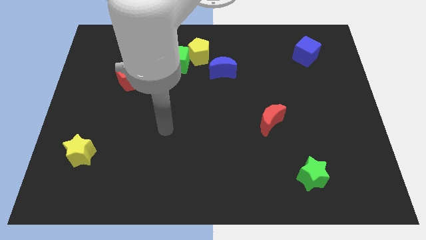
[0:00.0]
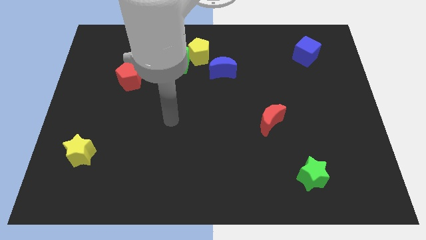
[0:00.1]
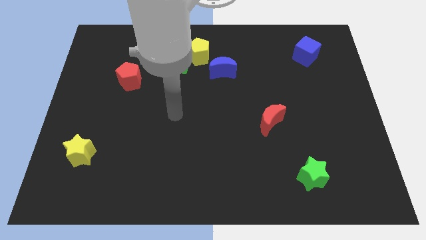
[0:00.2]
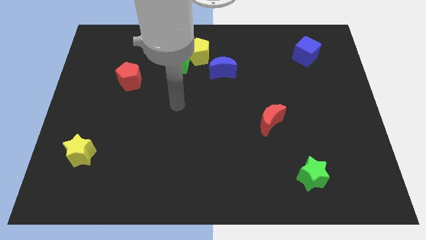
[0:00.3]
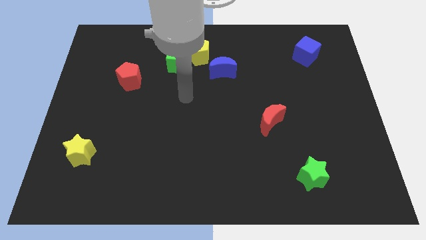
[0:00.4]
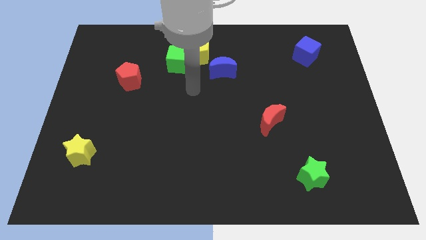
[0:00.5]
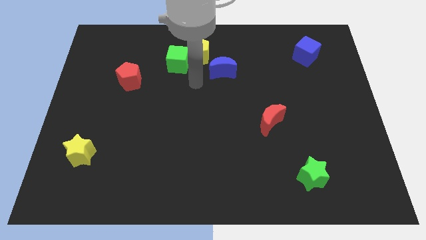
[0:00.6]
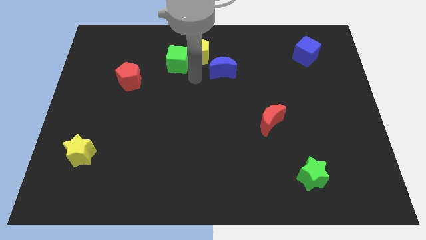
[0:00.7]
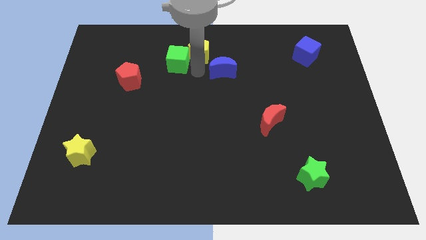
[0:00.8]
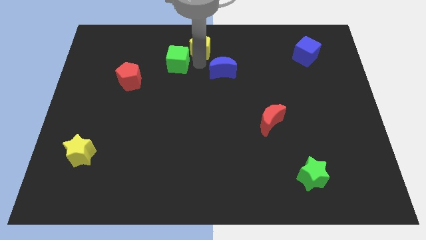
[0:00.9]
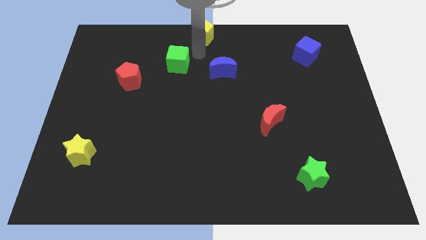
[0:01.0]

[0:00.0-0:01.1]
move the green cube away from the yellow pentagon

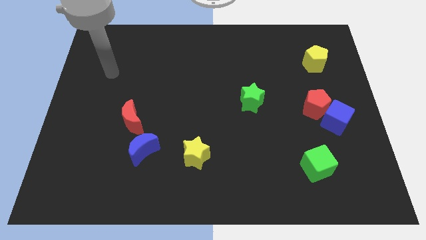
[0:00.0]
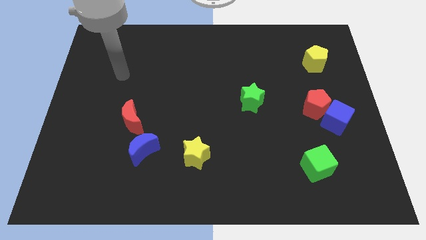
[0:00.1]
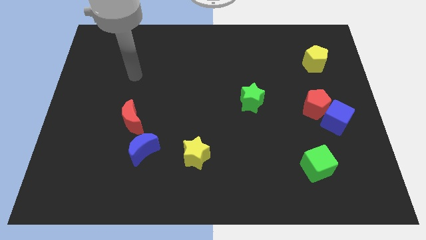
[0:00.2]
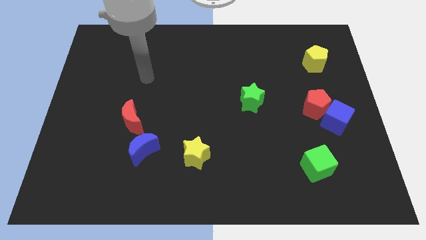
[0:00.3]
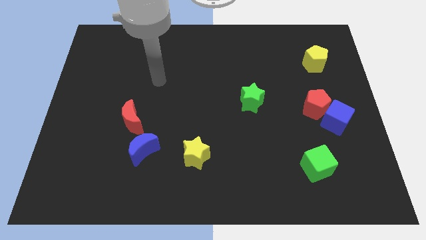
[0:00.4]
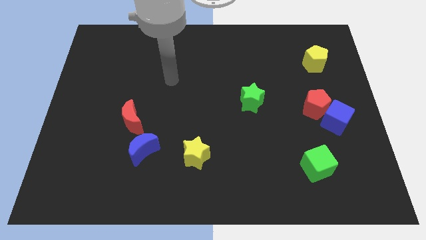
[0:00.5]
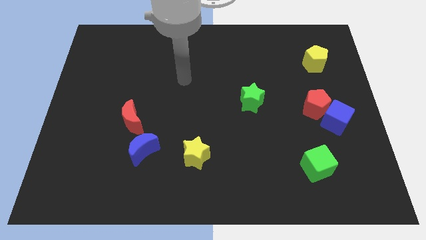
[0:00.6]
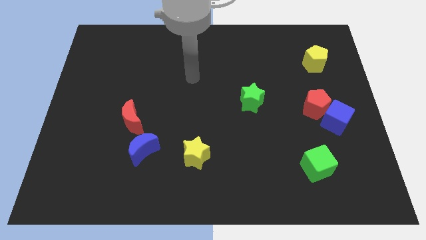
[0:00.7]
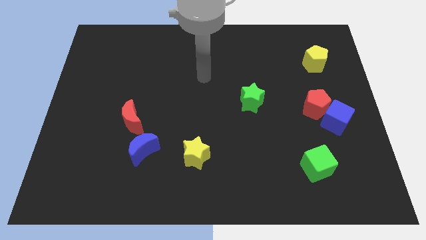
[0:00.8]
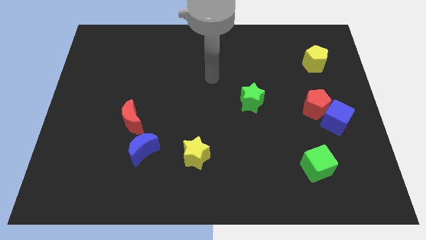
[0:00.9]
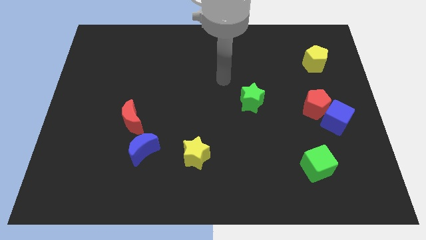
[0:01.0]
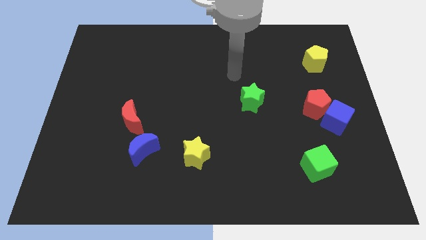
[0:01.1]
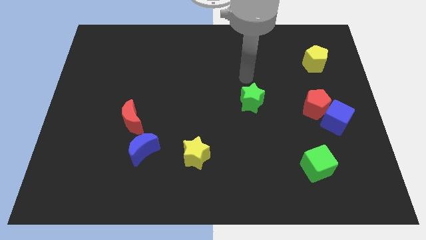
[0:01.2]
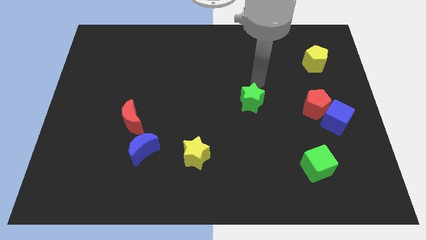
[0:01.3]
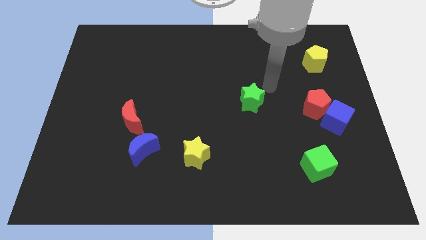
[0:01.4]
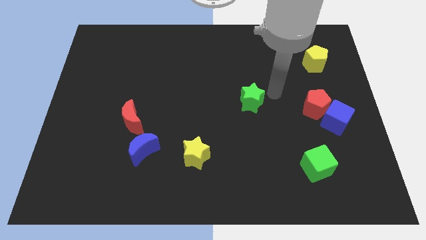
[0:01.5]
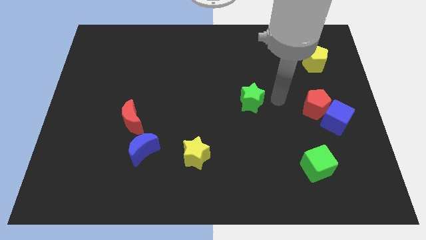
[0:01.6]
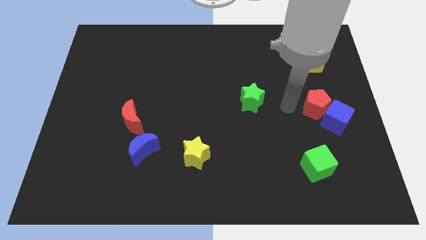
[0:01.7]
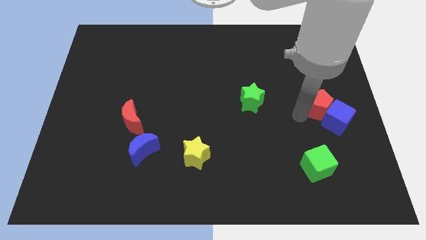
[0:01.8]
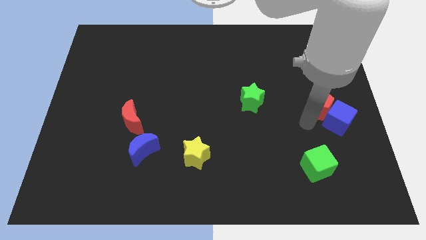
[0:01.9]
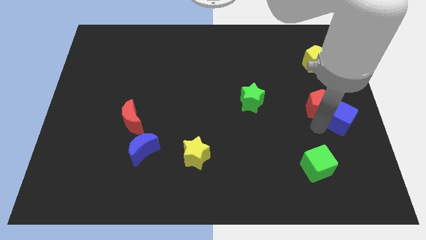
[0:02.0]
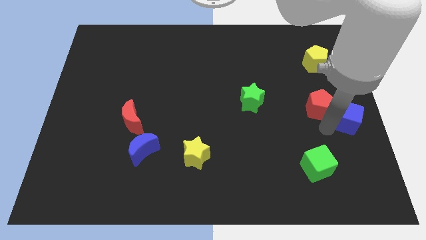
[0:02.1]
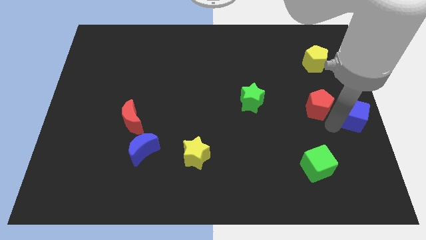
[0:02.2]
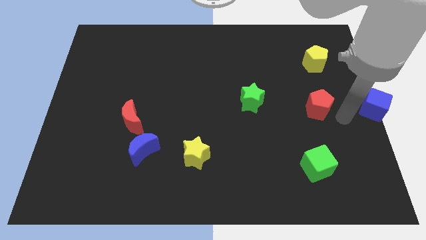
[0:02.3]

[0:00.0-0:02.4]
pull the red pentagon apart from the blue cube

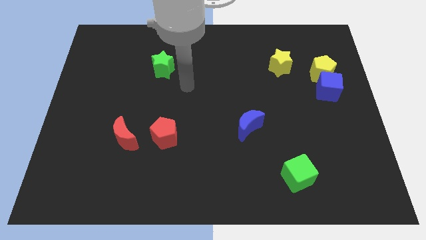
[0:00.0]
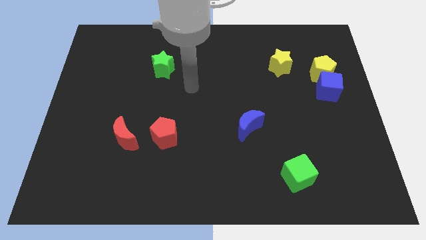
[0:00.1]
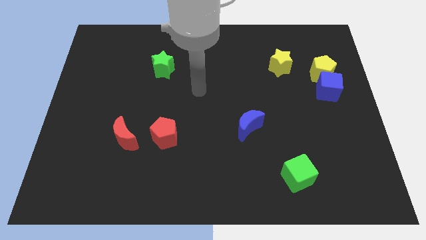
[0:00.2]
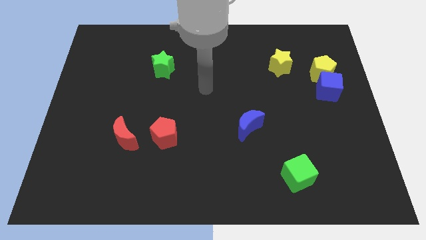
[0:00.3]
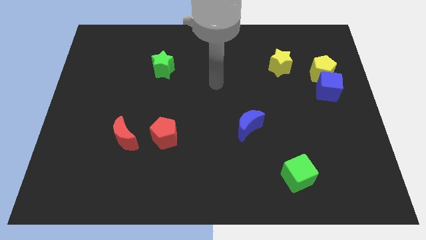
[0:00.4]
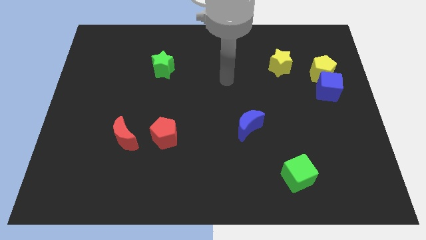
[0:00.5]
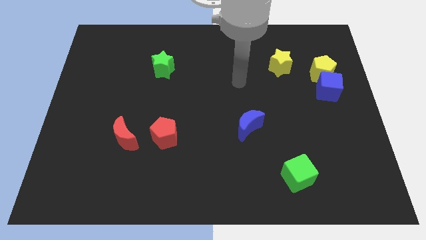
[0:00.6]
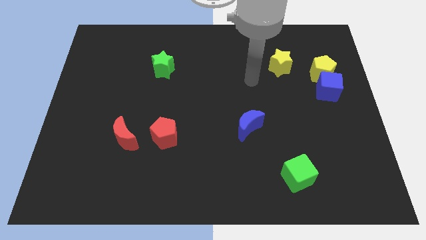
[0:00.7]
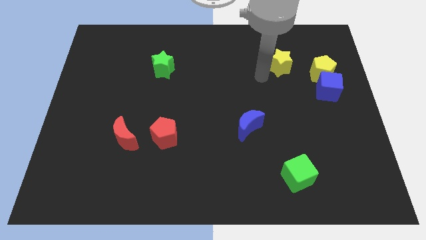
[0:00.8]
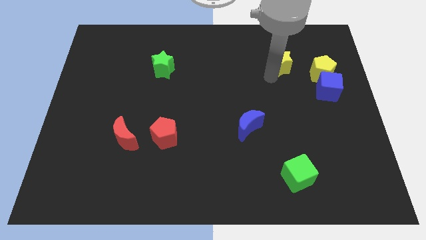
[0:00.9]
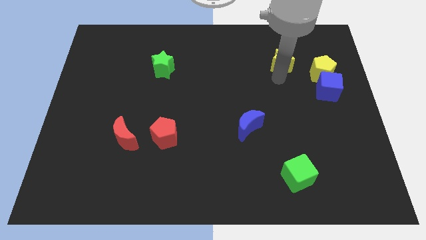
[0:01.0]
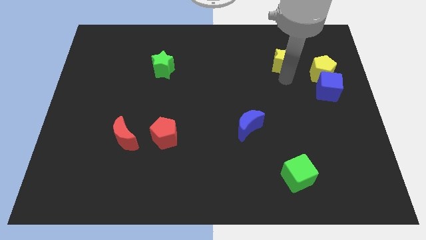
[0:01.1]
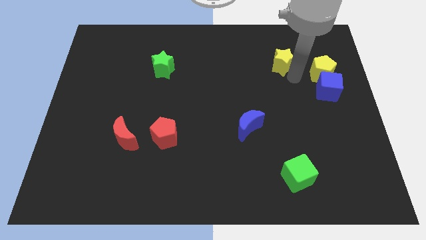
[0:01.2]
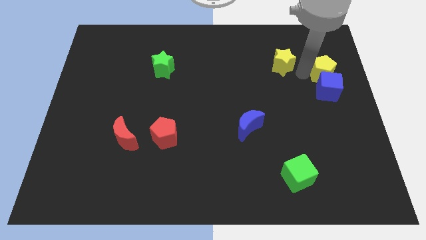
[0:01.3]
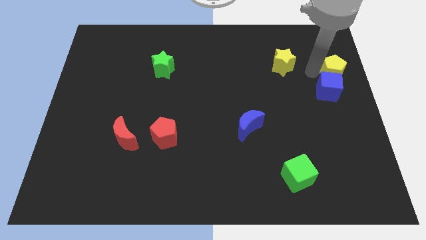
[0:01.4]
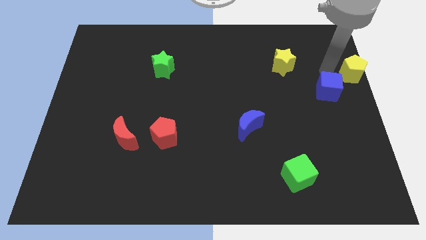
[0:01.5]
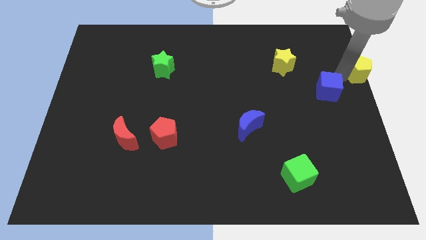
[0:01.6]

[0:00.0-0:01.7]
pull the blue cube apart from the yellow pentagon

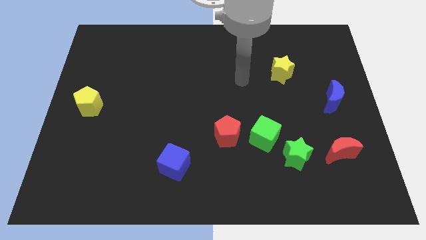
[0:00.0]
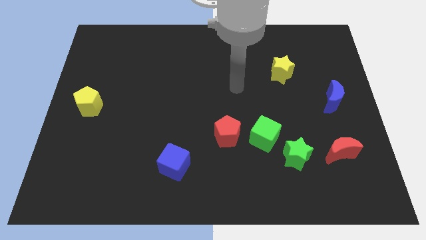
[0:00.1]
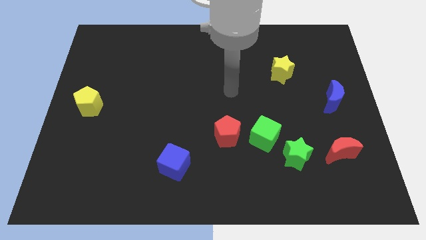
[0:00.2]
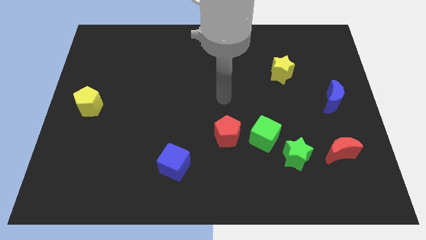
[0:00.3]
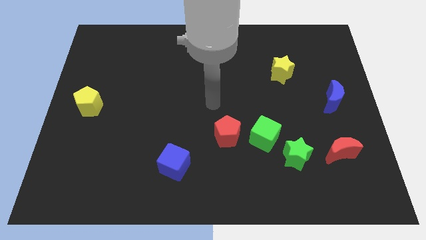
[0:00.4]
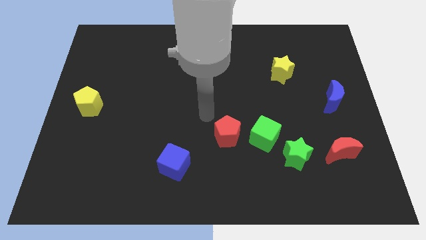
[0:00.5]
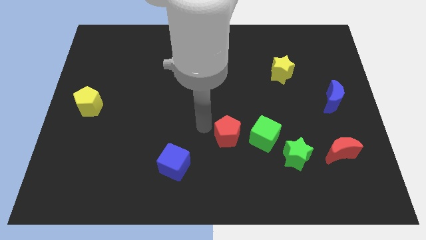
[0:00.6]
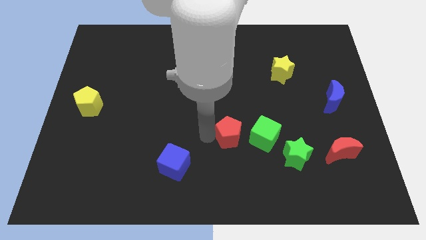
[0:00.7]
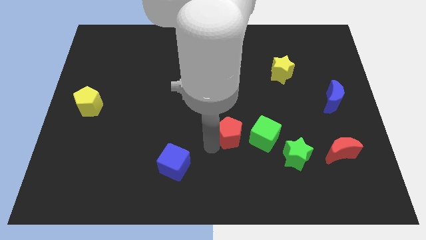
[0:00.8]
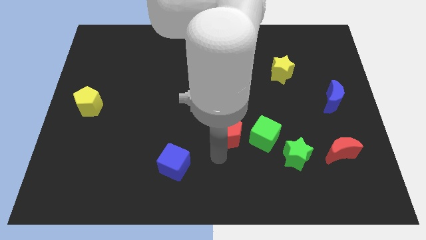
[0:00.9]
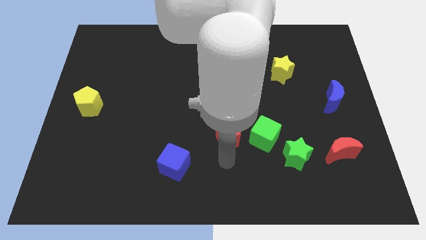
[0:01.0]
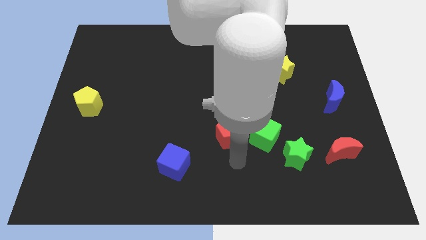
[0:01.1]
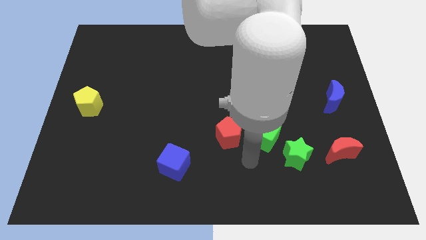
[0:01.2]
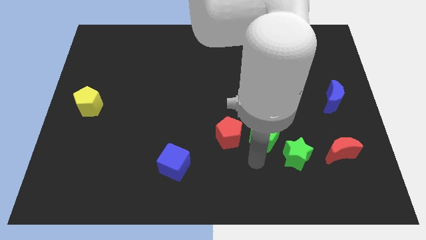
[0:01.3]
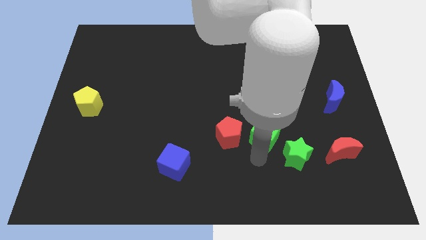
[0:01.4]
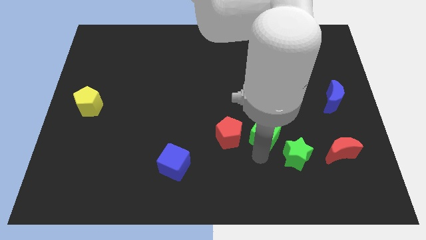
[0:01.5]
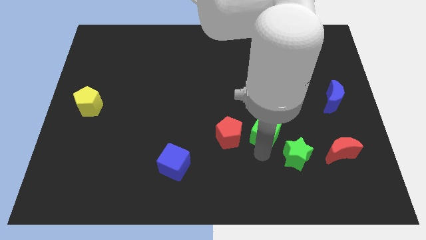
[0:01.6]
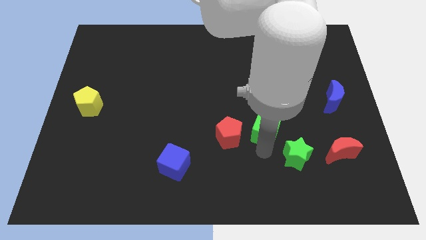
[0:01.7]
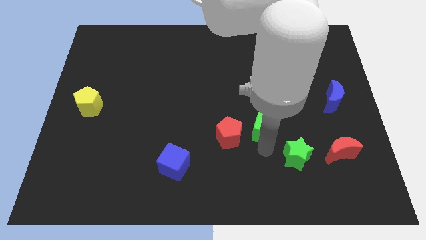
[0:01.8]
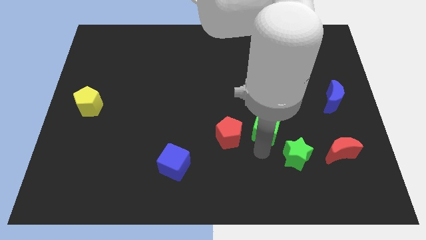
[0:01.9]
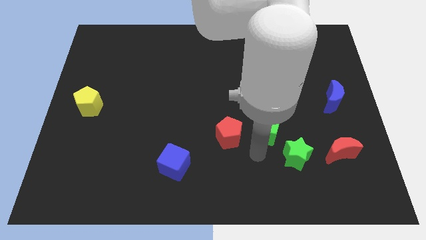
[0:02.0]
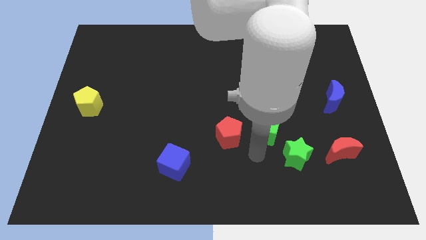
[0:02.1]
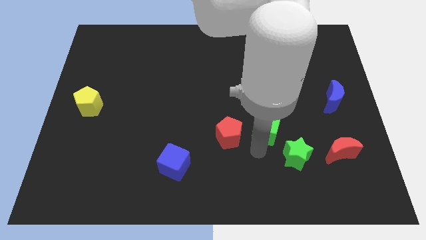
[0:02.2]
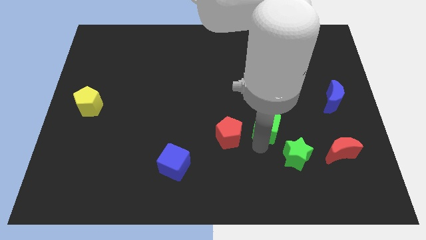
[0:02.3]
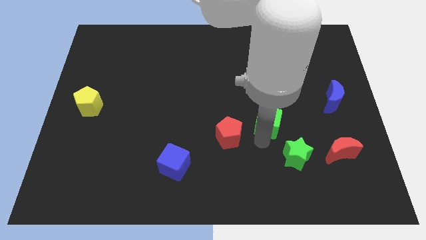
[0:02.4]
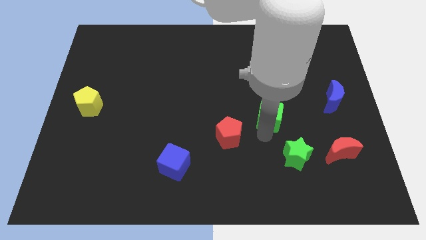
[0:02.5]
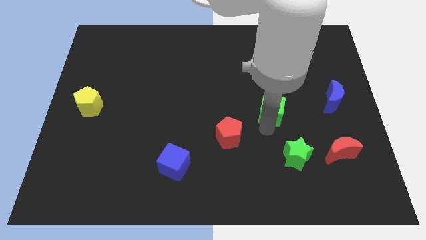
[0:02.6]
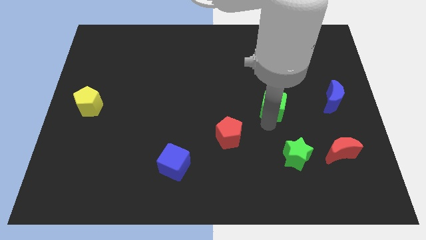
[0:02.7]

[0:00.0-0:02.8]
move the green cube away from the green star and red pentagon

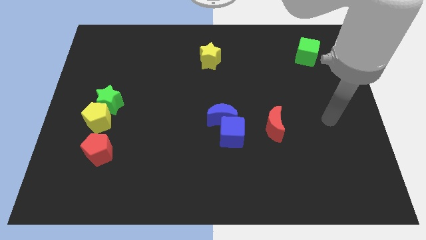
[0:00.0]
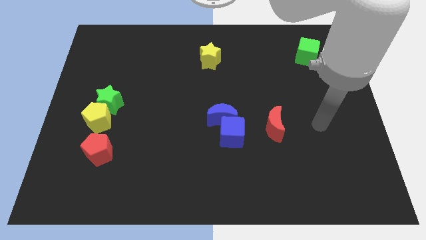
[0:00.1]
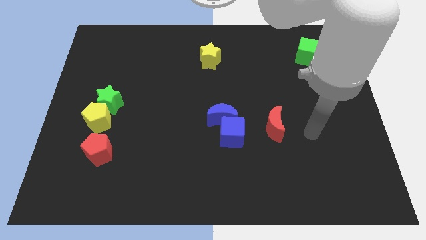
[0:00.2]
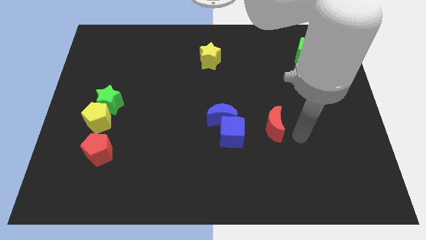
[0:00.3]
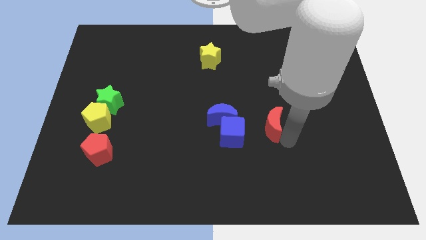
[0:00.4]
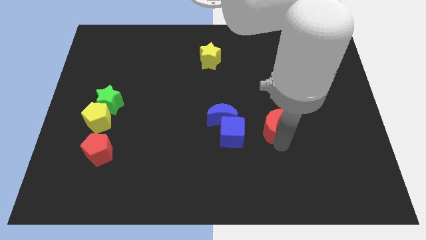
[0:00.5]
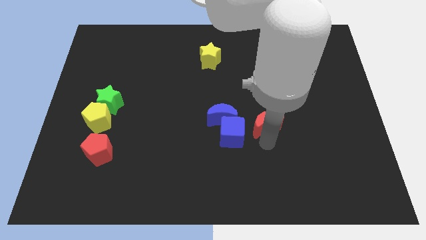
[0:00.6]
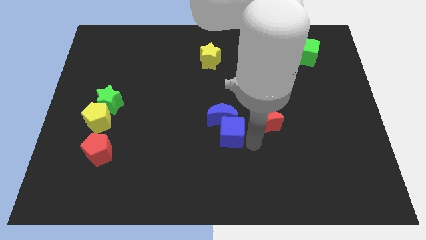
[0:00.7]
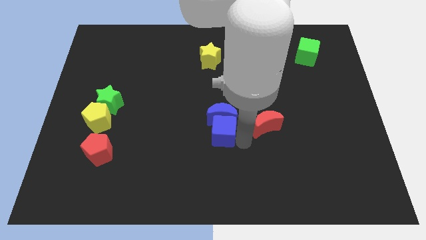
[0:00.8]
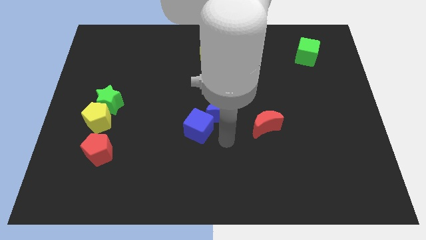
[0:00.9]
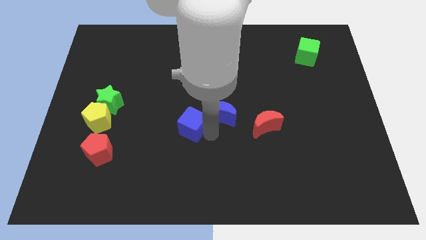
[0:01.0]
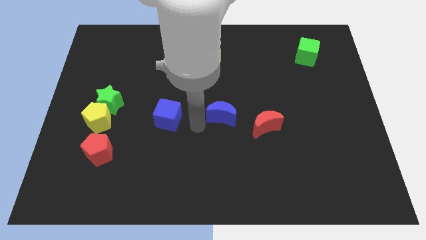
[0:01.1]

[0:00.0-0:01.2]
pull the blue moon apart from the blue cube

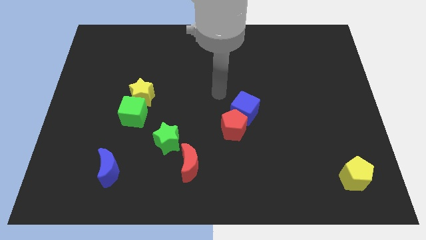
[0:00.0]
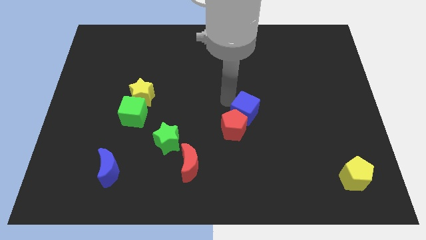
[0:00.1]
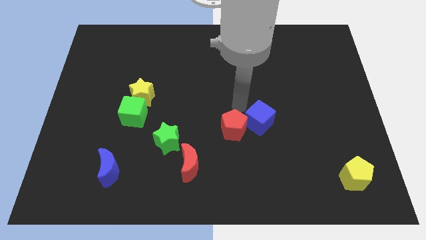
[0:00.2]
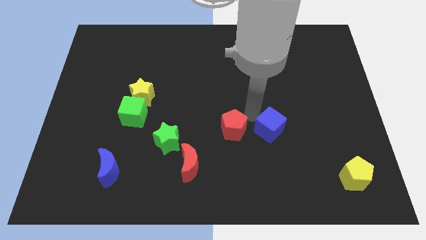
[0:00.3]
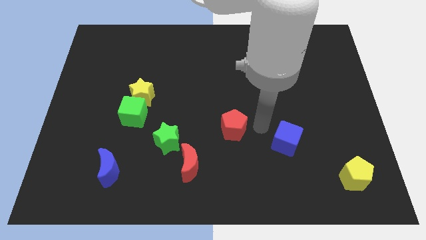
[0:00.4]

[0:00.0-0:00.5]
move the red pentagon away from the blue cube
